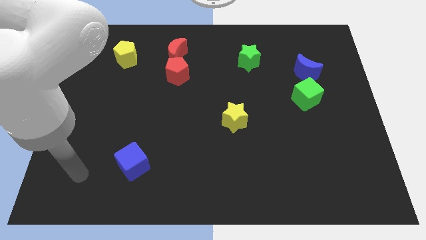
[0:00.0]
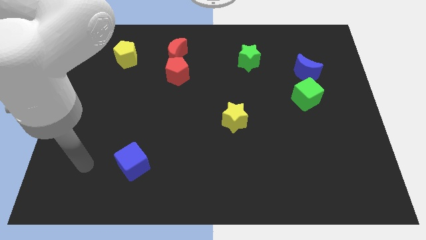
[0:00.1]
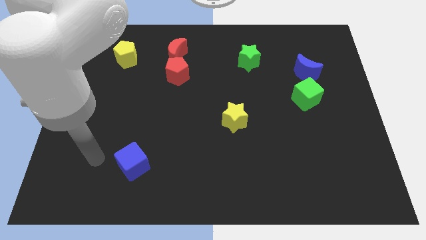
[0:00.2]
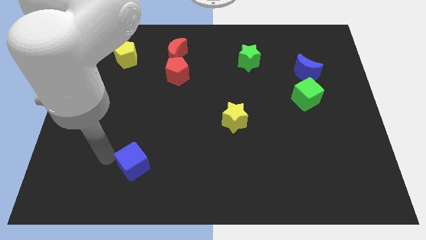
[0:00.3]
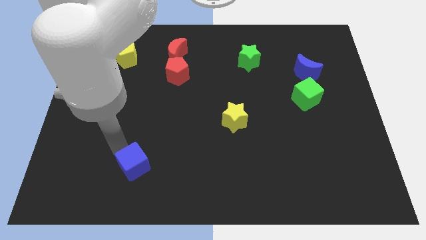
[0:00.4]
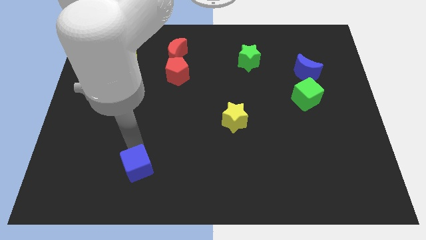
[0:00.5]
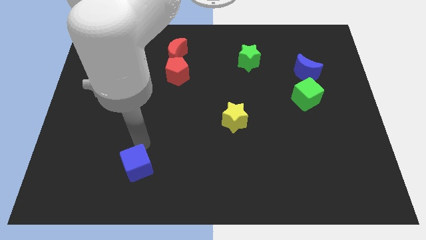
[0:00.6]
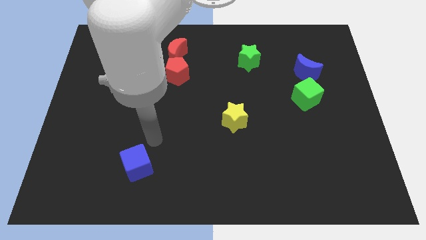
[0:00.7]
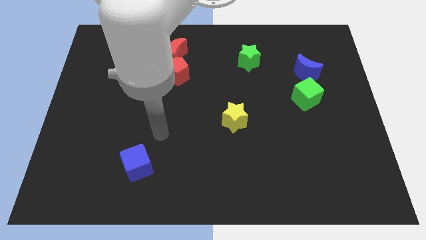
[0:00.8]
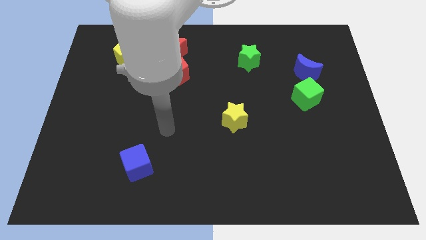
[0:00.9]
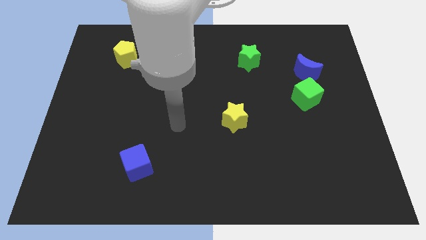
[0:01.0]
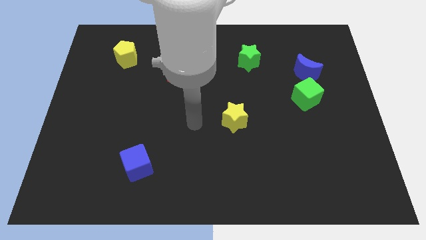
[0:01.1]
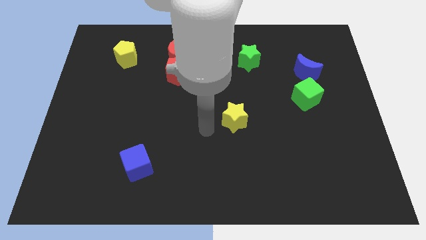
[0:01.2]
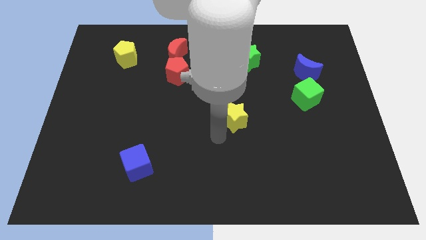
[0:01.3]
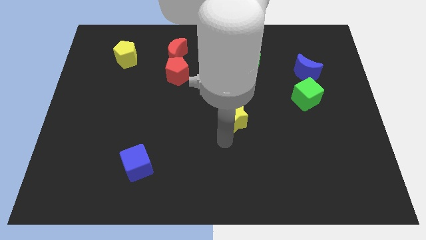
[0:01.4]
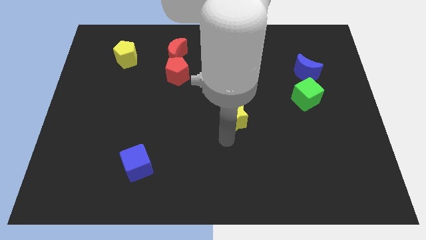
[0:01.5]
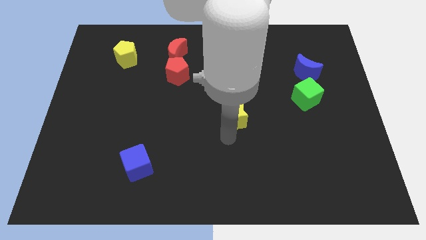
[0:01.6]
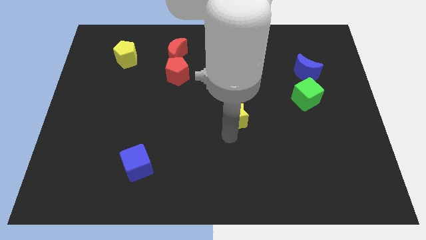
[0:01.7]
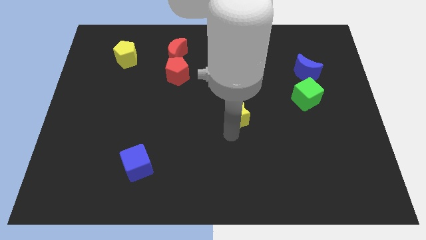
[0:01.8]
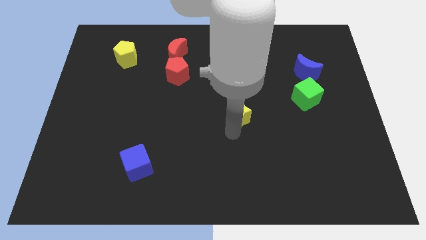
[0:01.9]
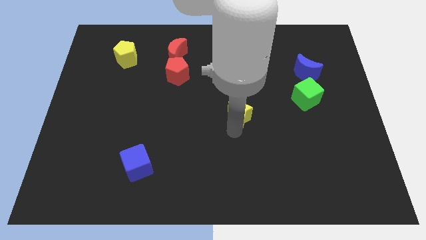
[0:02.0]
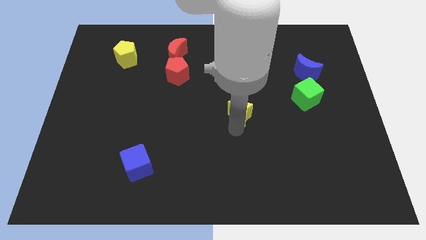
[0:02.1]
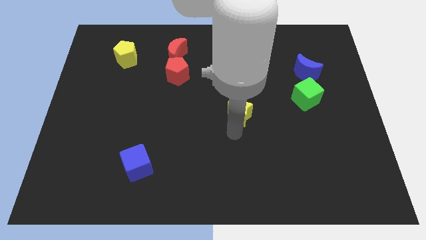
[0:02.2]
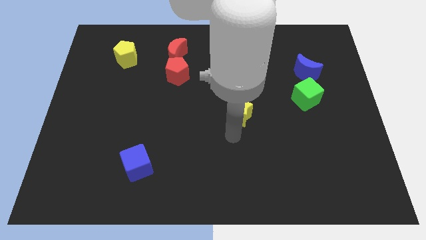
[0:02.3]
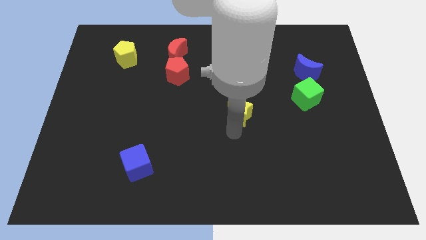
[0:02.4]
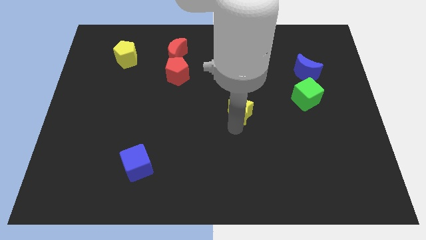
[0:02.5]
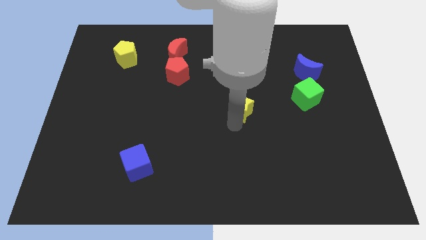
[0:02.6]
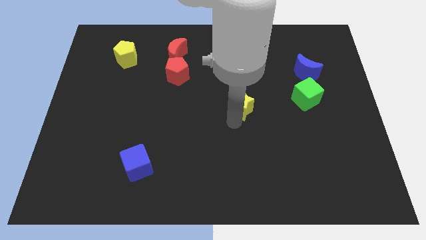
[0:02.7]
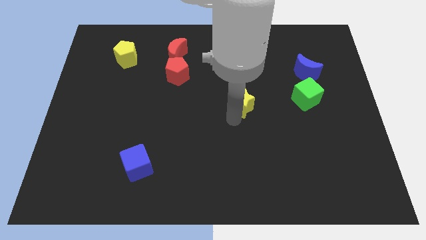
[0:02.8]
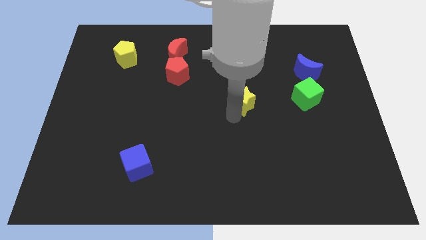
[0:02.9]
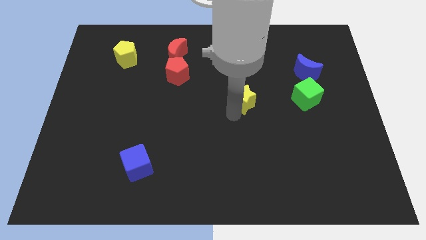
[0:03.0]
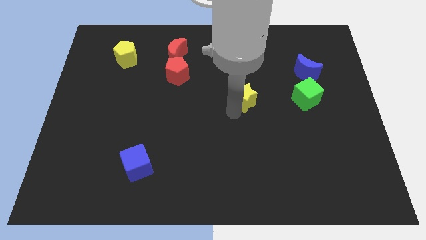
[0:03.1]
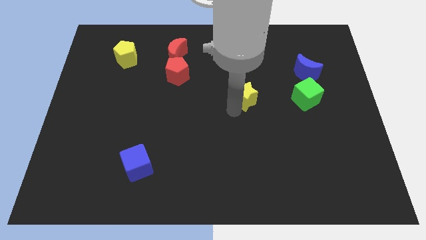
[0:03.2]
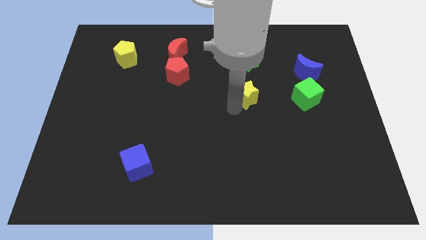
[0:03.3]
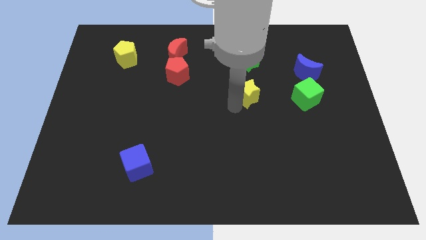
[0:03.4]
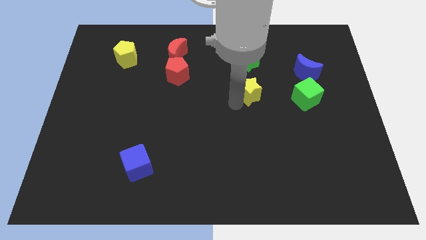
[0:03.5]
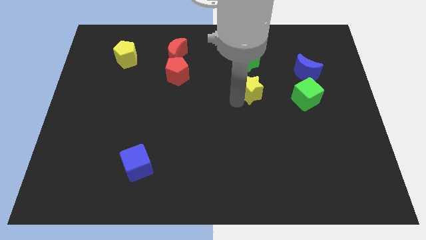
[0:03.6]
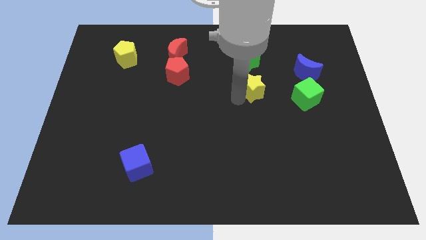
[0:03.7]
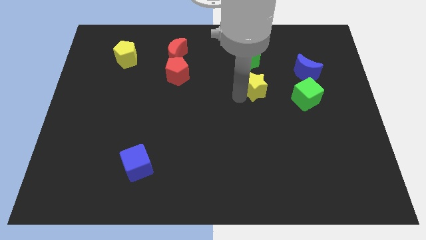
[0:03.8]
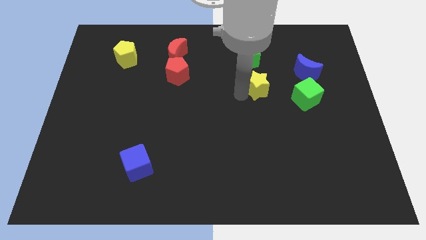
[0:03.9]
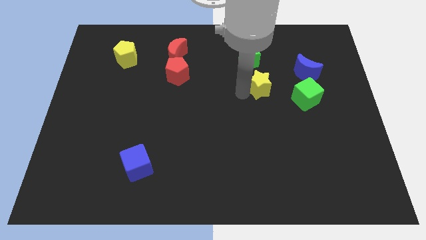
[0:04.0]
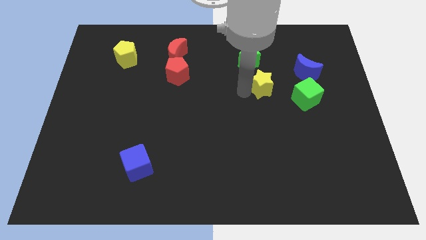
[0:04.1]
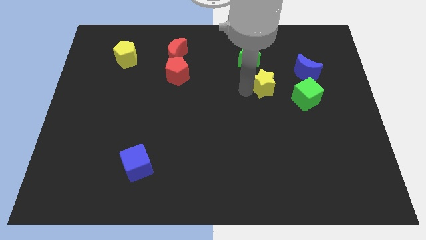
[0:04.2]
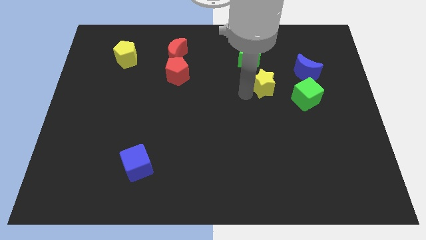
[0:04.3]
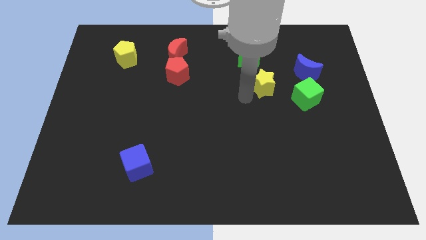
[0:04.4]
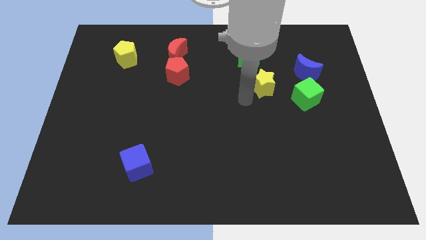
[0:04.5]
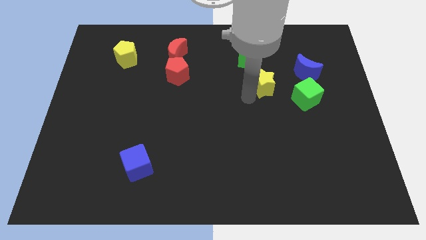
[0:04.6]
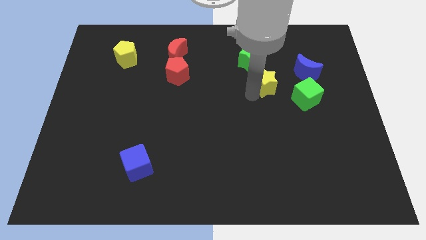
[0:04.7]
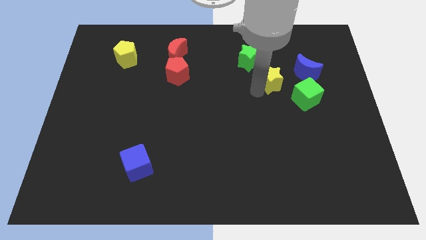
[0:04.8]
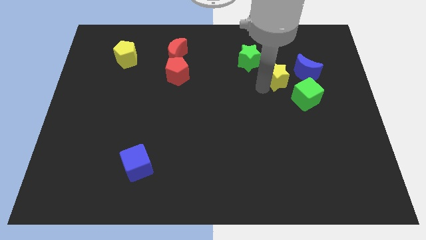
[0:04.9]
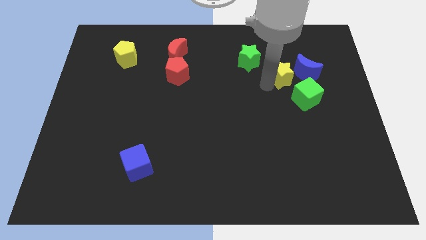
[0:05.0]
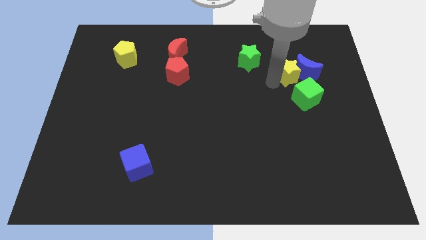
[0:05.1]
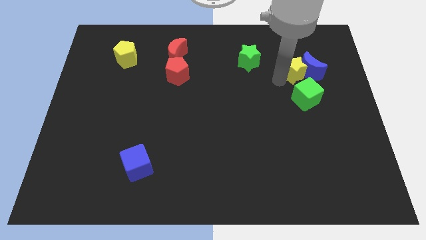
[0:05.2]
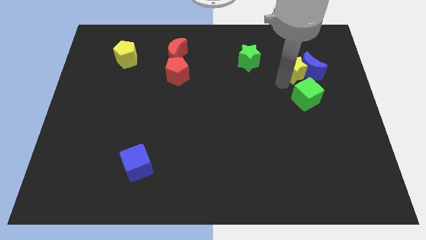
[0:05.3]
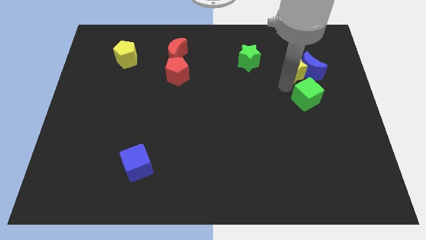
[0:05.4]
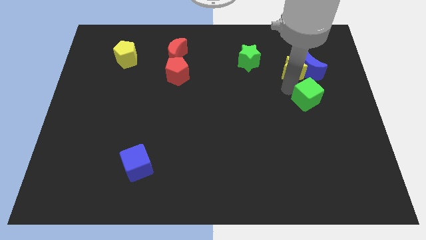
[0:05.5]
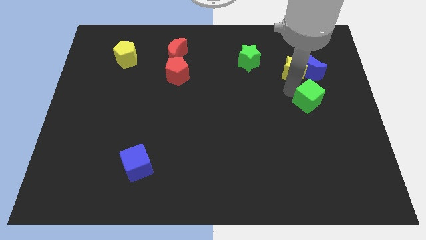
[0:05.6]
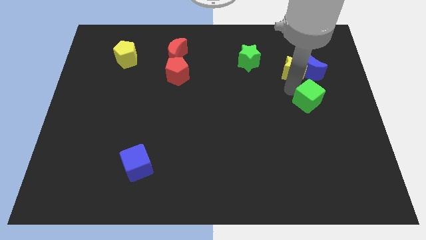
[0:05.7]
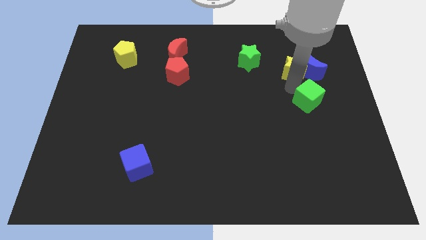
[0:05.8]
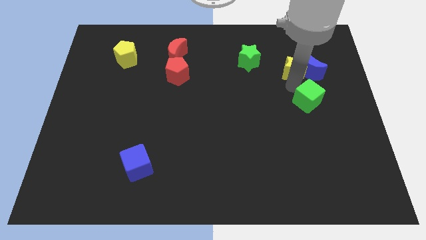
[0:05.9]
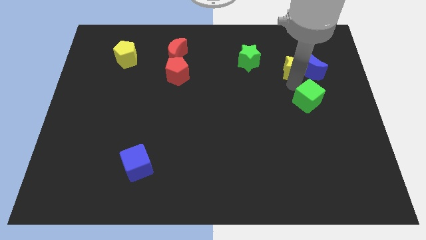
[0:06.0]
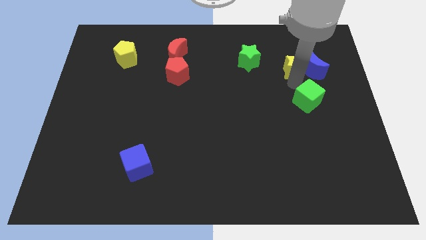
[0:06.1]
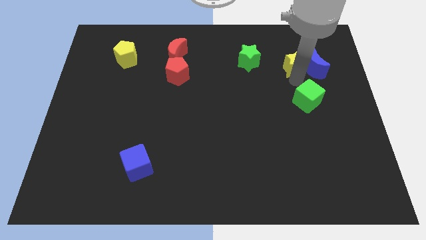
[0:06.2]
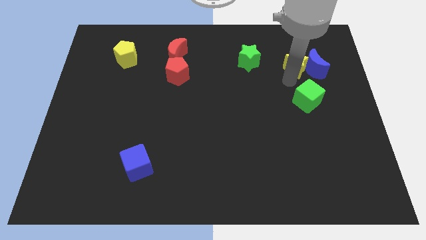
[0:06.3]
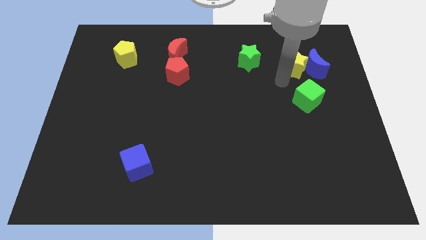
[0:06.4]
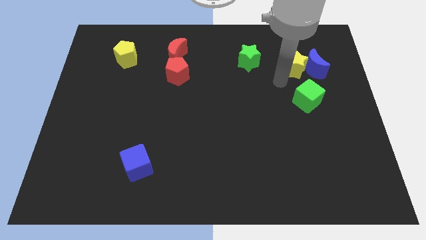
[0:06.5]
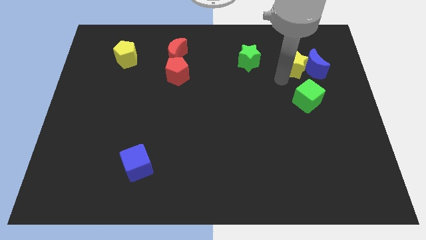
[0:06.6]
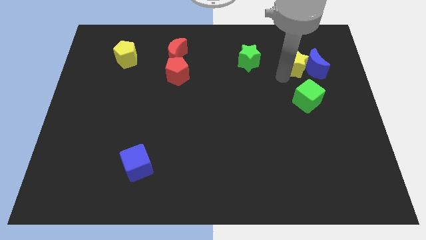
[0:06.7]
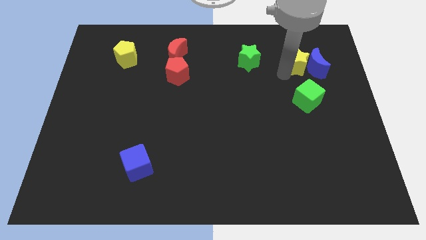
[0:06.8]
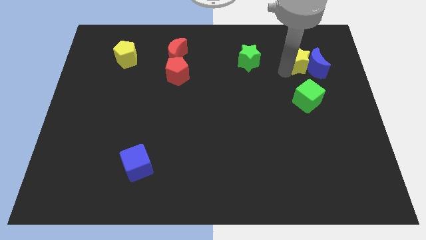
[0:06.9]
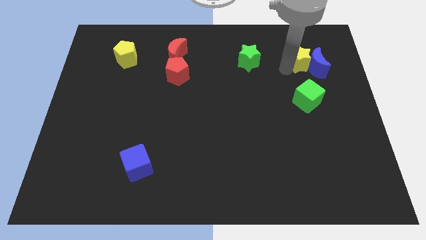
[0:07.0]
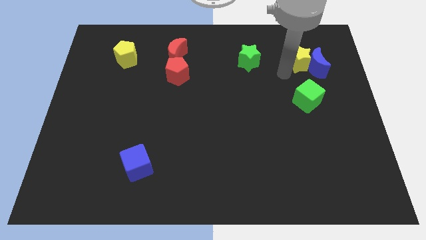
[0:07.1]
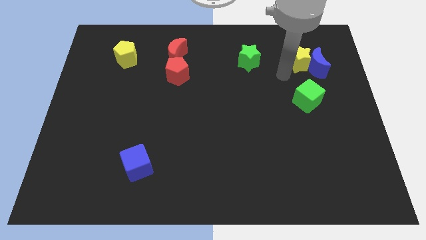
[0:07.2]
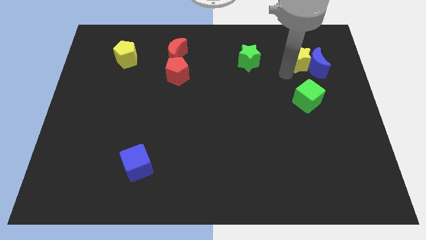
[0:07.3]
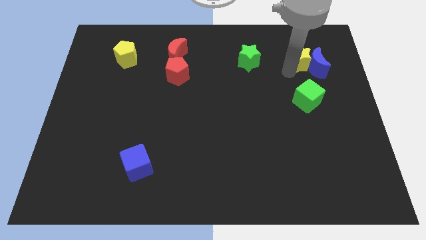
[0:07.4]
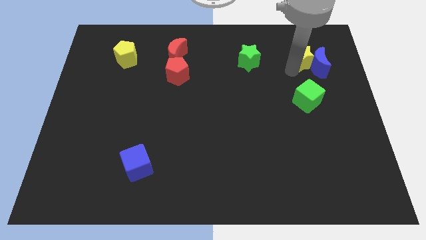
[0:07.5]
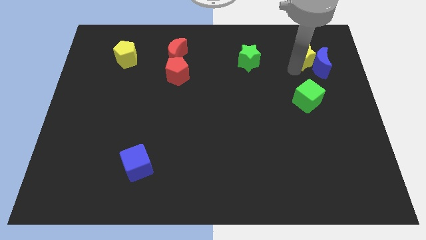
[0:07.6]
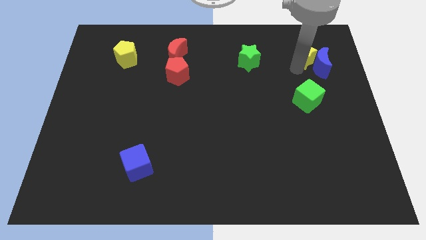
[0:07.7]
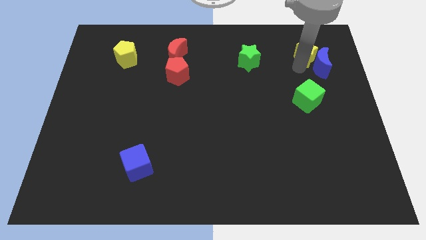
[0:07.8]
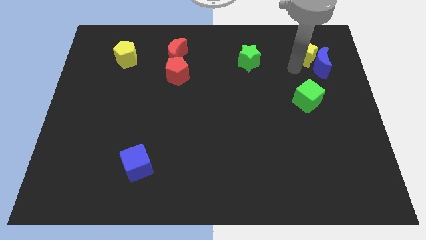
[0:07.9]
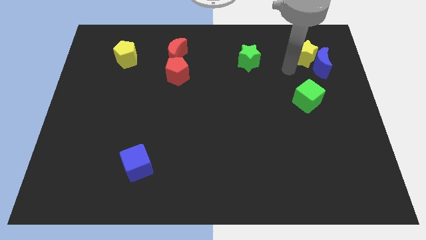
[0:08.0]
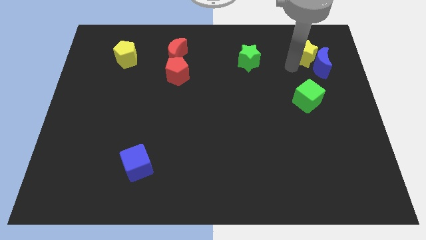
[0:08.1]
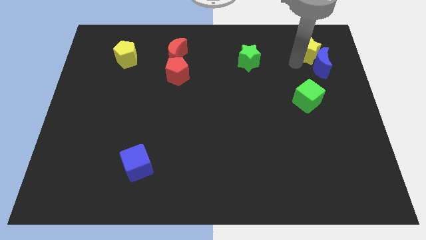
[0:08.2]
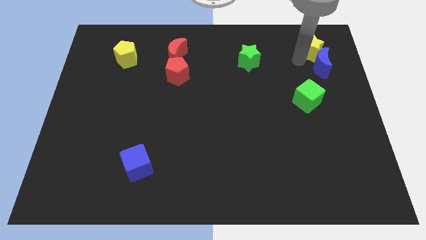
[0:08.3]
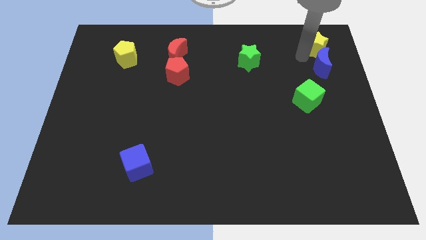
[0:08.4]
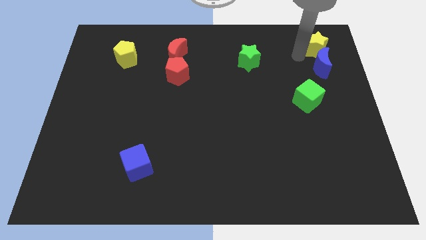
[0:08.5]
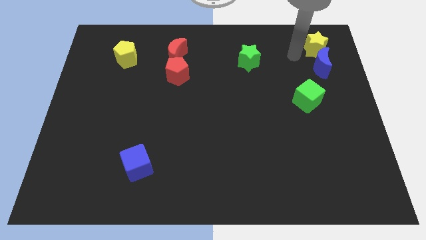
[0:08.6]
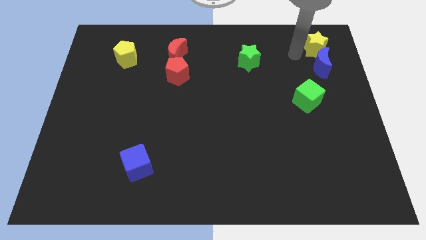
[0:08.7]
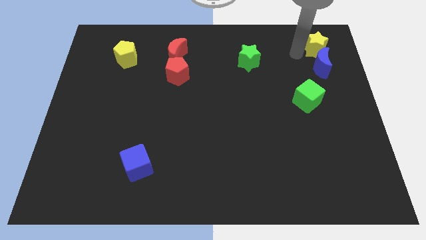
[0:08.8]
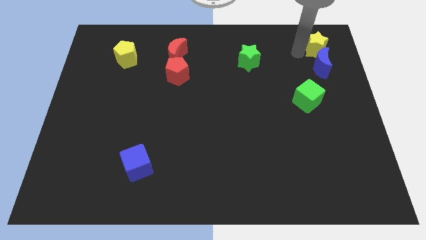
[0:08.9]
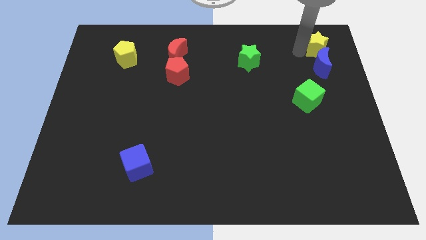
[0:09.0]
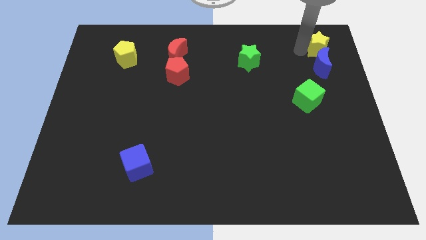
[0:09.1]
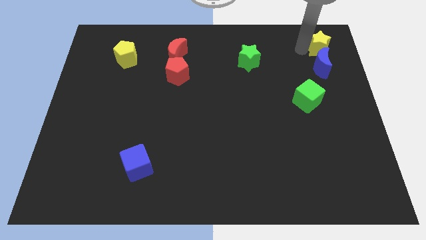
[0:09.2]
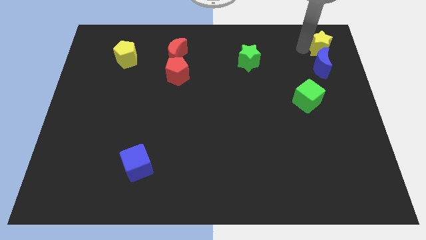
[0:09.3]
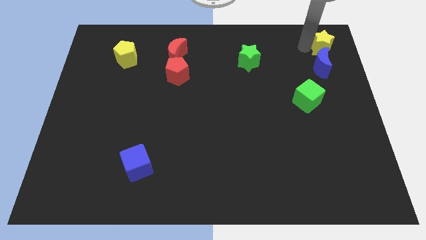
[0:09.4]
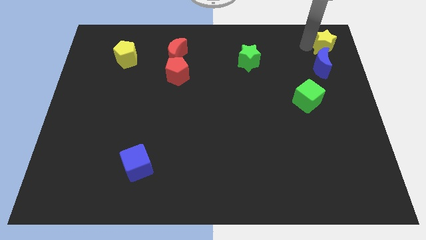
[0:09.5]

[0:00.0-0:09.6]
push the yellow star to the top right corner
